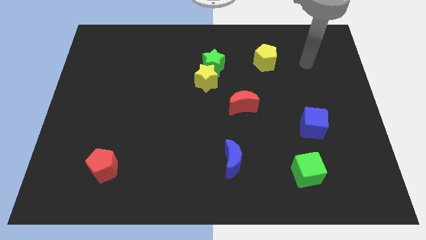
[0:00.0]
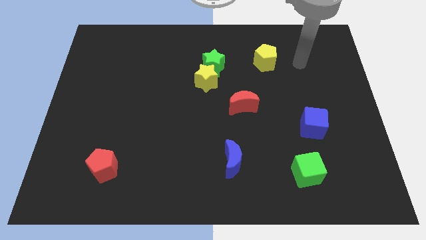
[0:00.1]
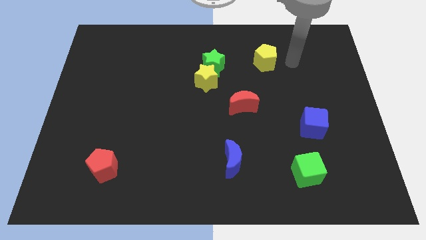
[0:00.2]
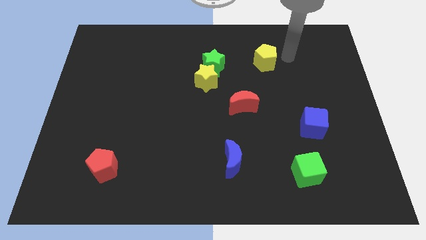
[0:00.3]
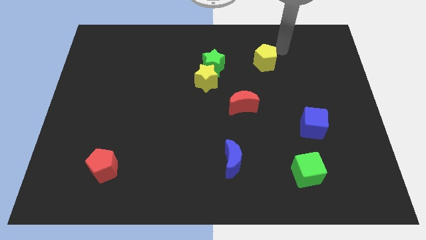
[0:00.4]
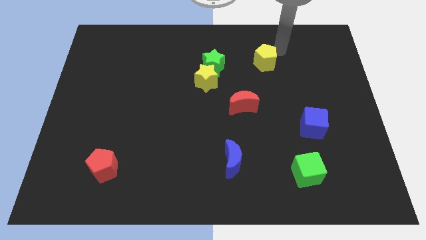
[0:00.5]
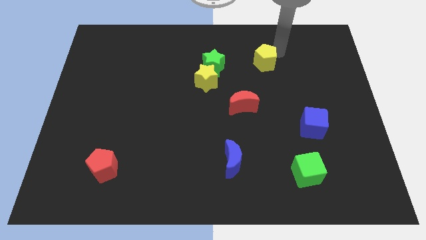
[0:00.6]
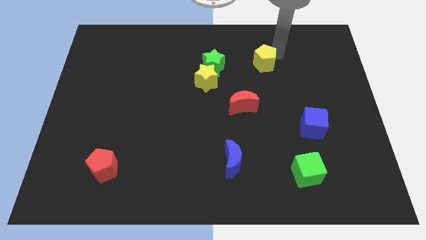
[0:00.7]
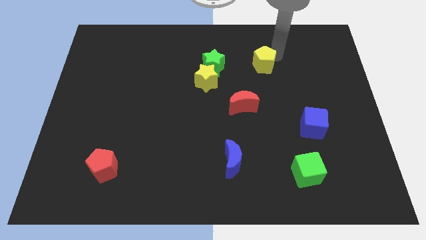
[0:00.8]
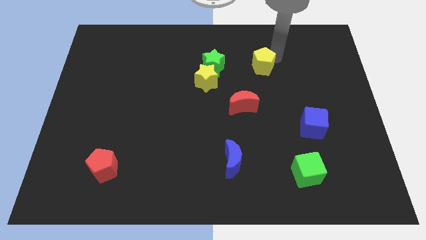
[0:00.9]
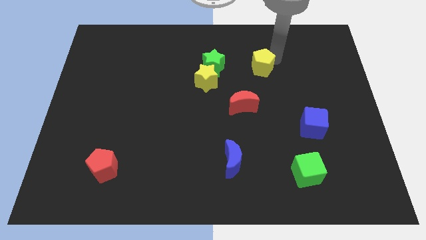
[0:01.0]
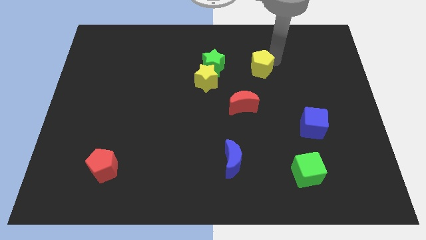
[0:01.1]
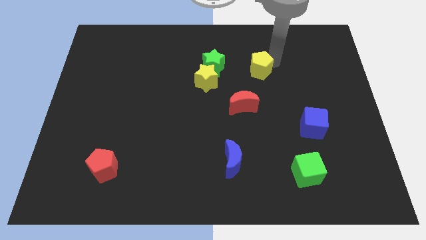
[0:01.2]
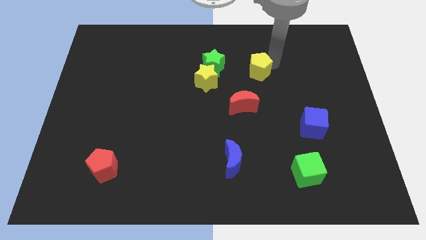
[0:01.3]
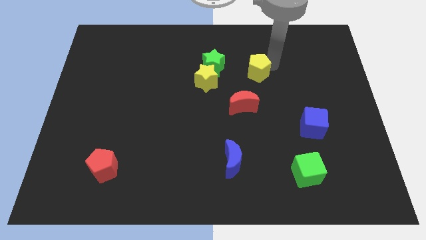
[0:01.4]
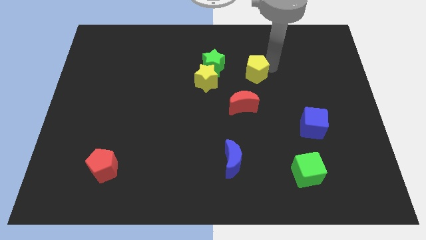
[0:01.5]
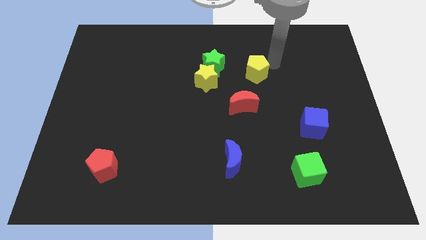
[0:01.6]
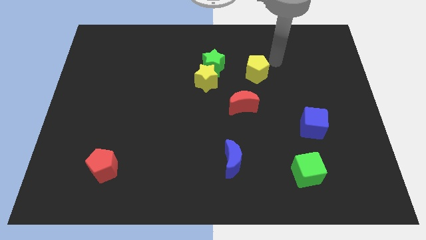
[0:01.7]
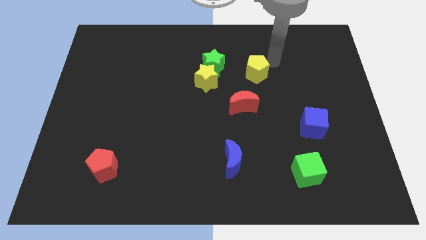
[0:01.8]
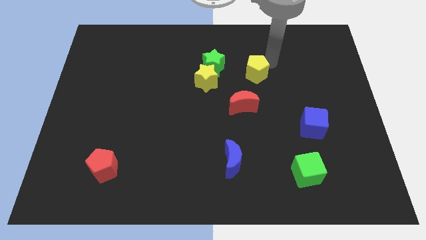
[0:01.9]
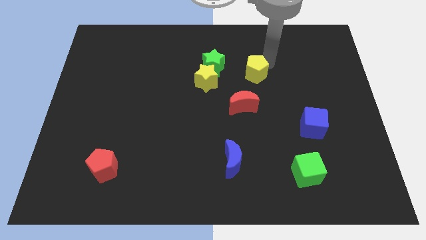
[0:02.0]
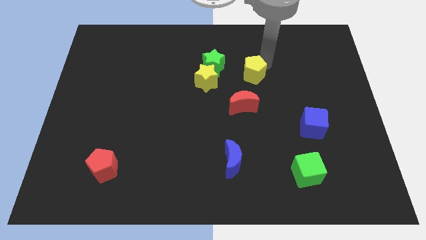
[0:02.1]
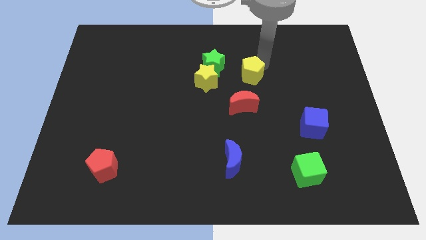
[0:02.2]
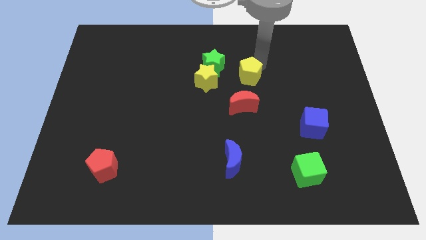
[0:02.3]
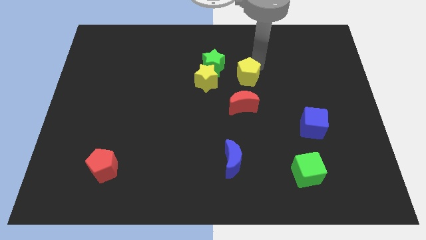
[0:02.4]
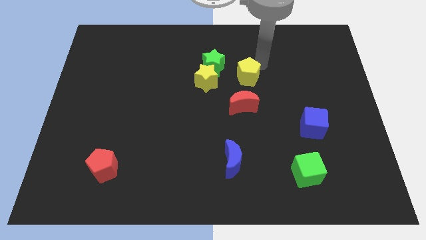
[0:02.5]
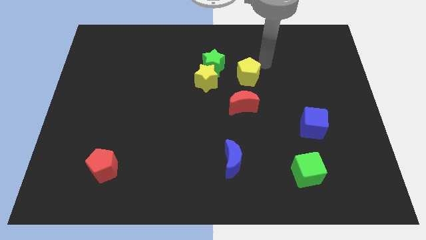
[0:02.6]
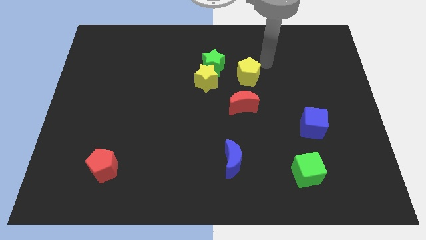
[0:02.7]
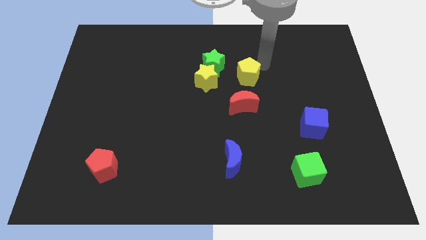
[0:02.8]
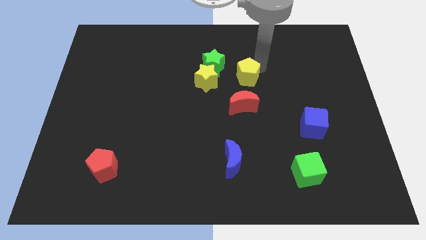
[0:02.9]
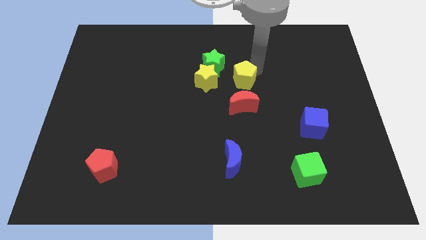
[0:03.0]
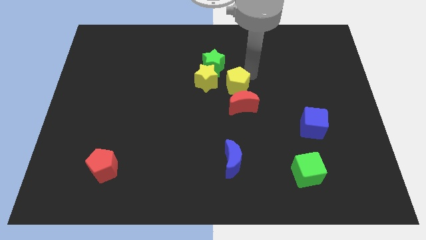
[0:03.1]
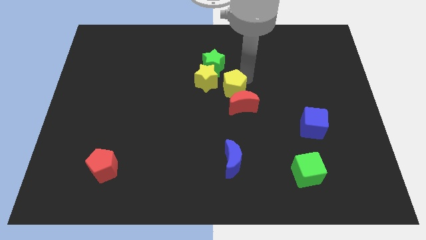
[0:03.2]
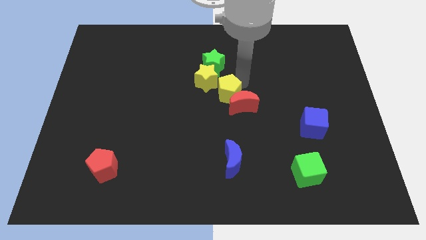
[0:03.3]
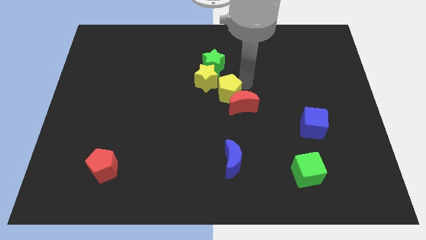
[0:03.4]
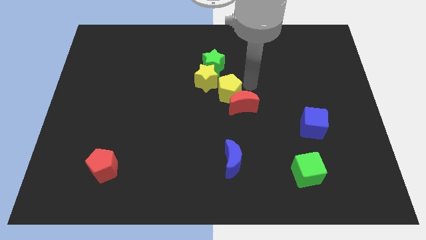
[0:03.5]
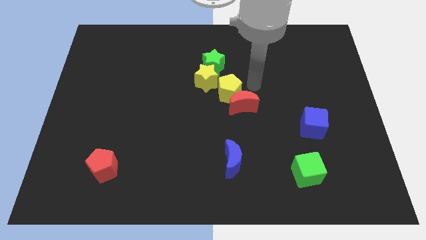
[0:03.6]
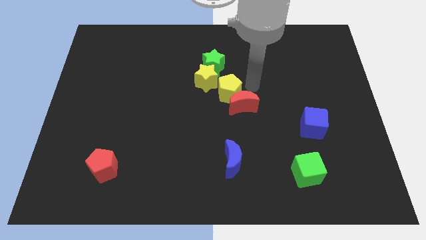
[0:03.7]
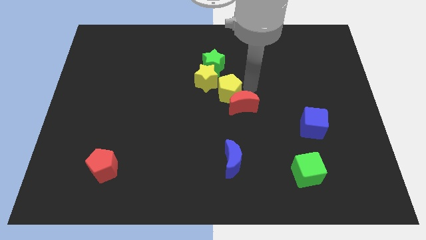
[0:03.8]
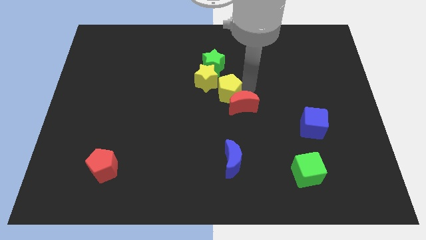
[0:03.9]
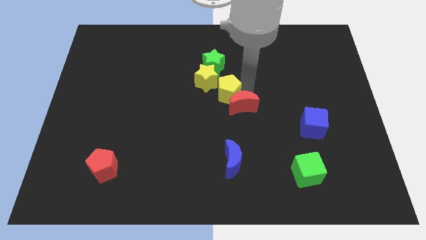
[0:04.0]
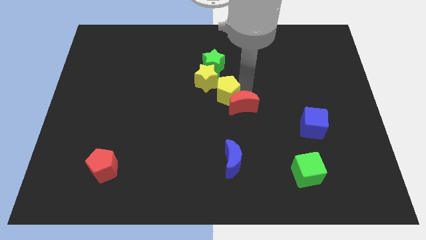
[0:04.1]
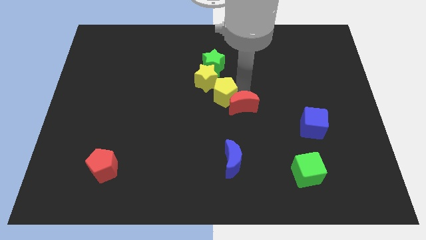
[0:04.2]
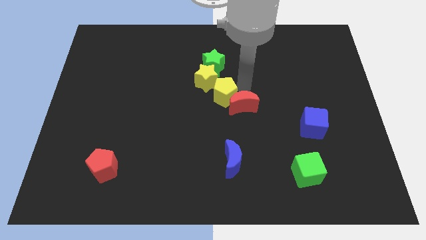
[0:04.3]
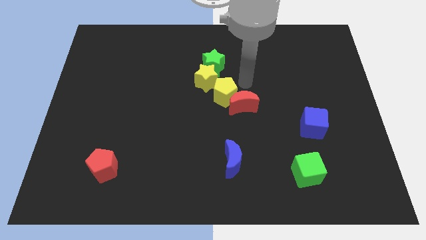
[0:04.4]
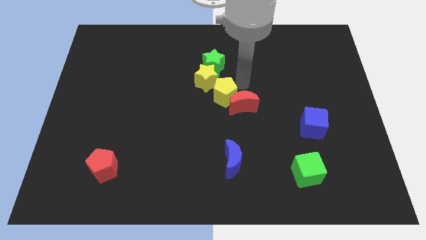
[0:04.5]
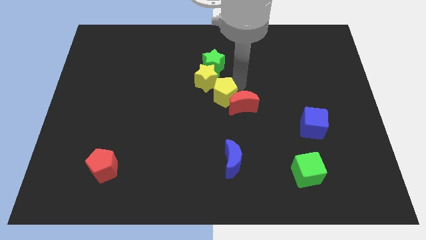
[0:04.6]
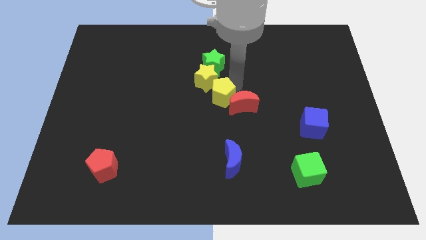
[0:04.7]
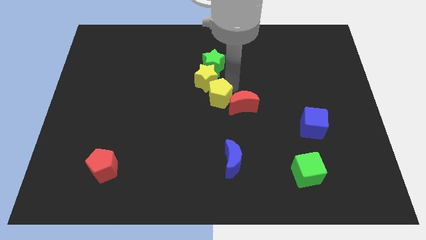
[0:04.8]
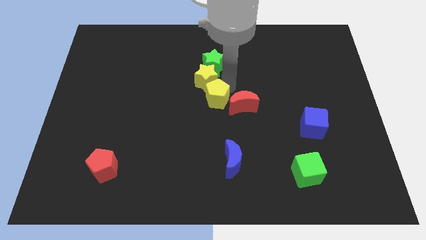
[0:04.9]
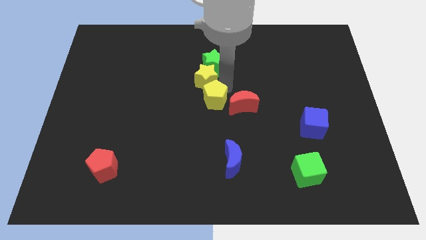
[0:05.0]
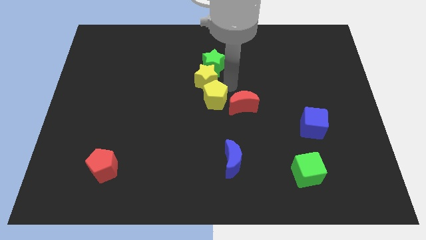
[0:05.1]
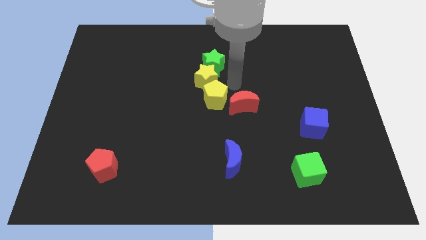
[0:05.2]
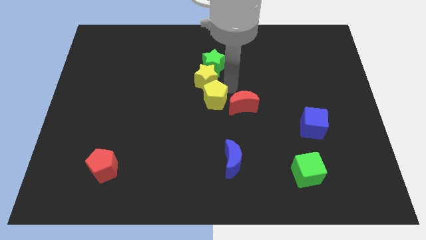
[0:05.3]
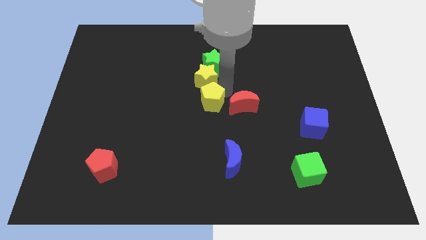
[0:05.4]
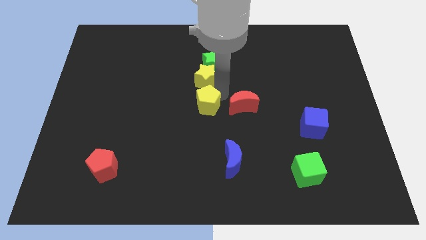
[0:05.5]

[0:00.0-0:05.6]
push the yellow pentagon downwards and left

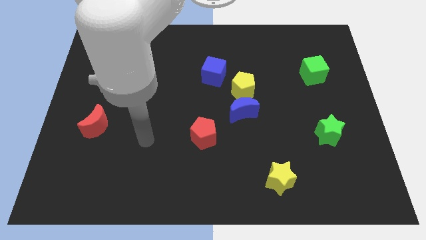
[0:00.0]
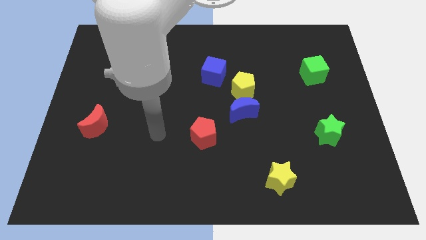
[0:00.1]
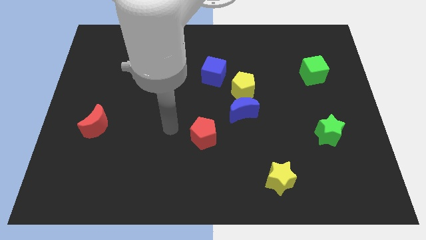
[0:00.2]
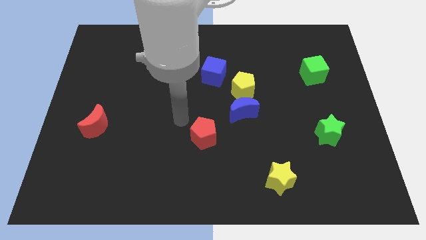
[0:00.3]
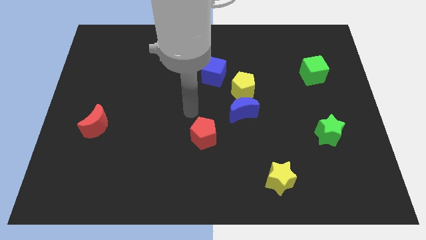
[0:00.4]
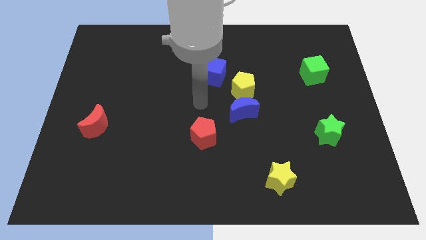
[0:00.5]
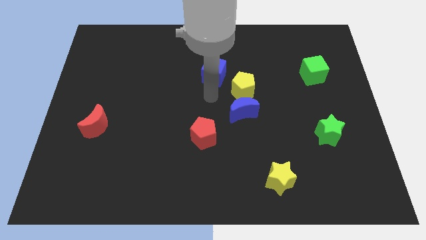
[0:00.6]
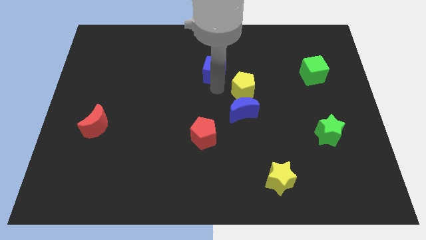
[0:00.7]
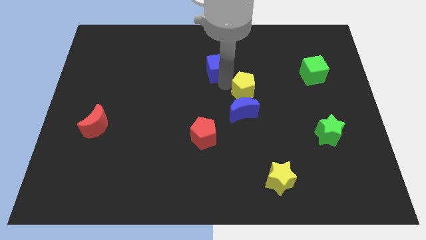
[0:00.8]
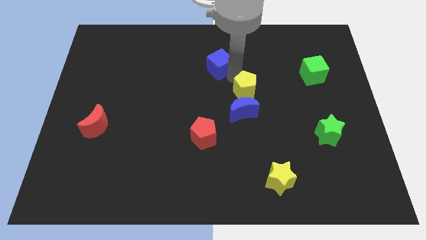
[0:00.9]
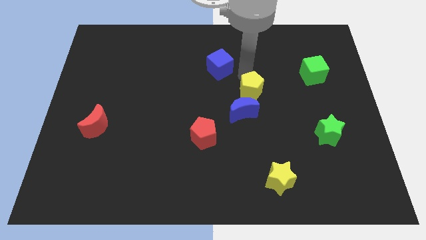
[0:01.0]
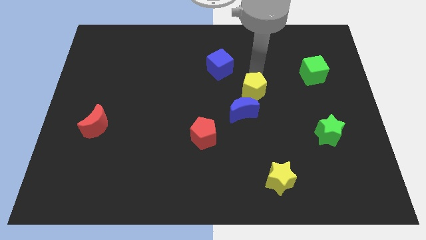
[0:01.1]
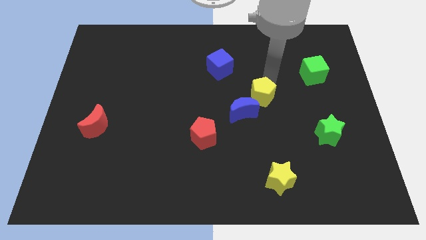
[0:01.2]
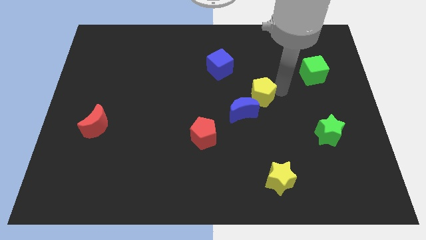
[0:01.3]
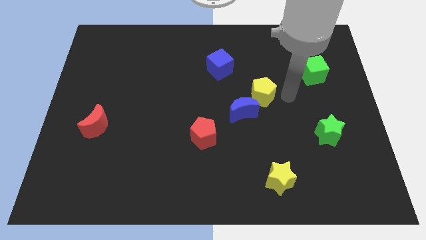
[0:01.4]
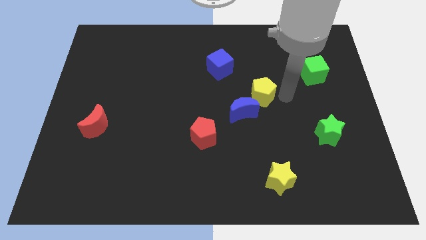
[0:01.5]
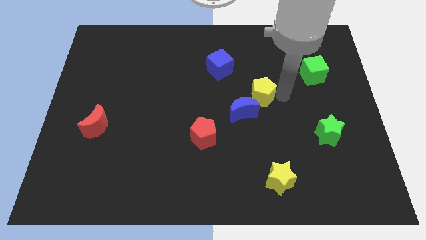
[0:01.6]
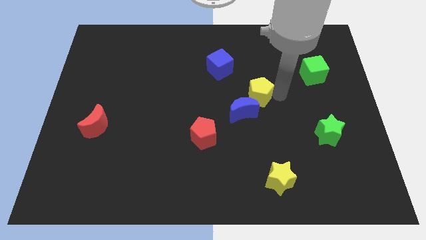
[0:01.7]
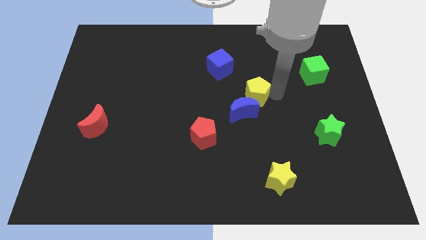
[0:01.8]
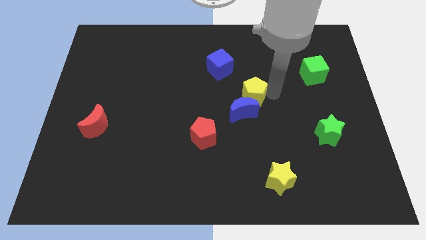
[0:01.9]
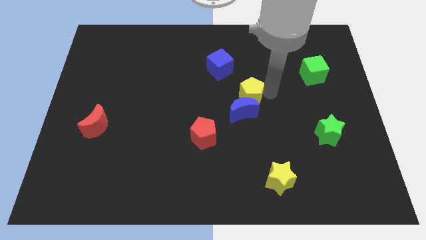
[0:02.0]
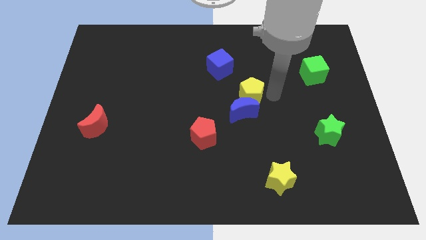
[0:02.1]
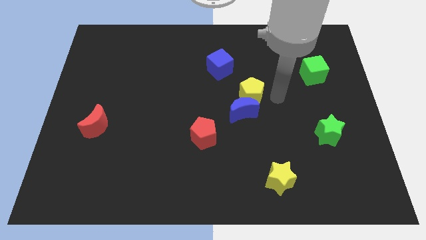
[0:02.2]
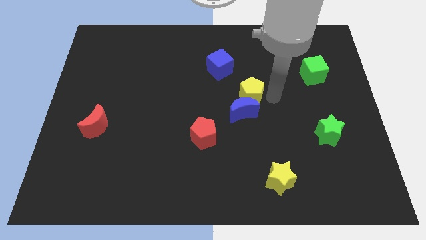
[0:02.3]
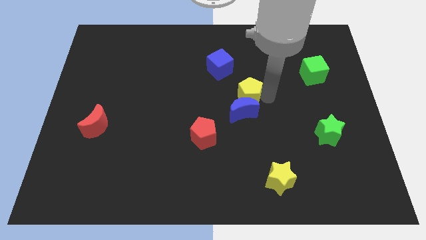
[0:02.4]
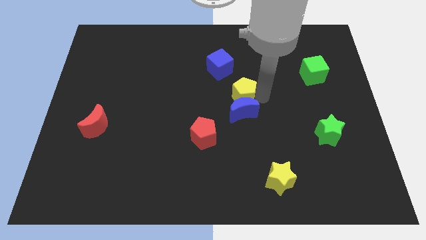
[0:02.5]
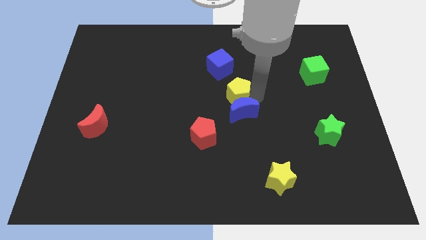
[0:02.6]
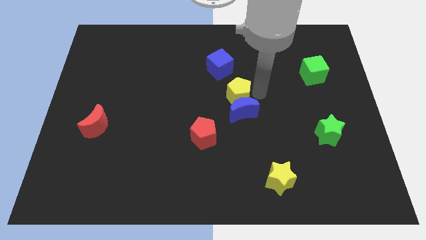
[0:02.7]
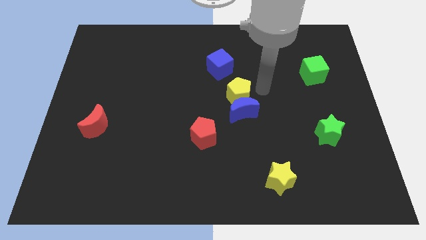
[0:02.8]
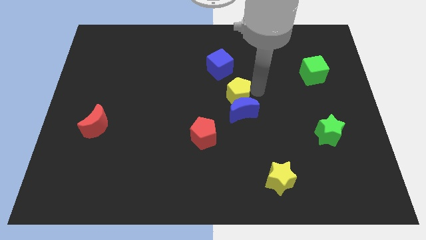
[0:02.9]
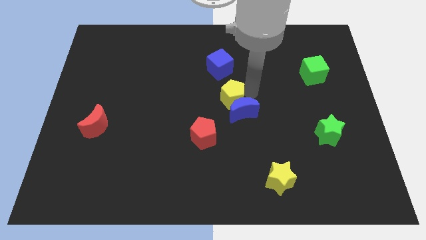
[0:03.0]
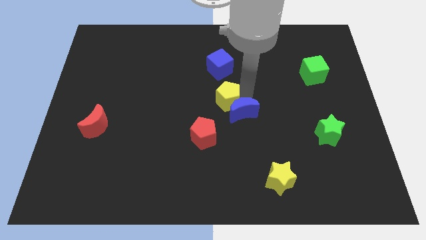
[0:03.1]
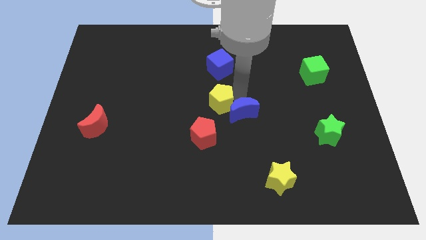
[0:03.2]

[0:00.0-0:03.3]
slide the yellow pentagon somewhat downwards and left diagonally
